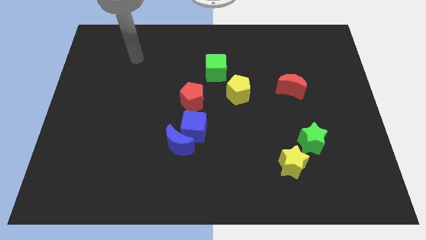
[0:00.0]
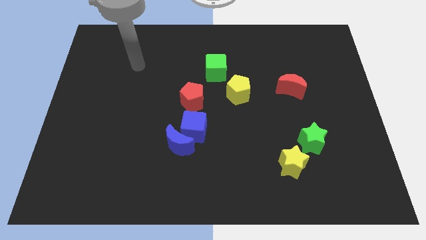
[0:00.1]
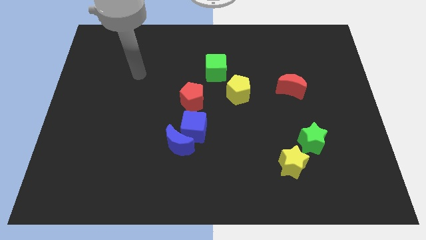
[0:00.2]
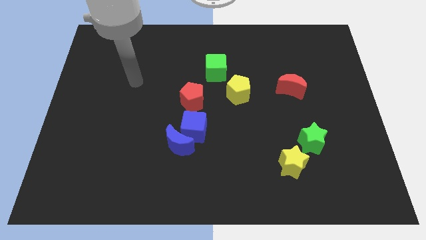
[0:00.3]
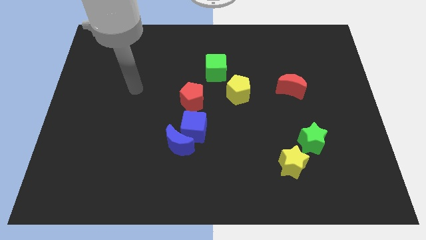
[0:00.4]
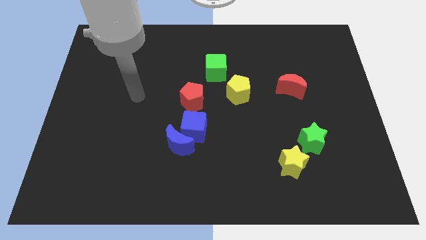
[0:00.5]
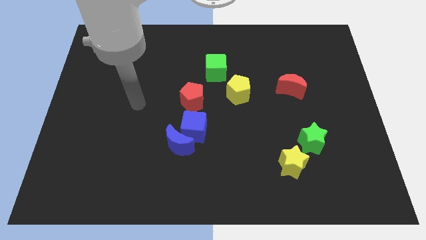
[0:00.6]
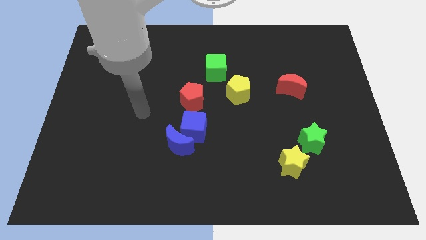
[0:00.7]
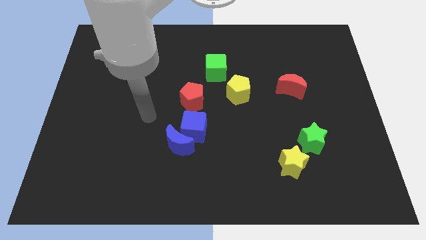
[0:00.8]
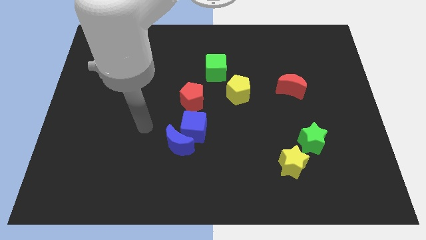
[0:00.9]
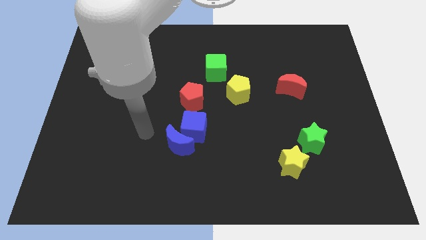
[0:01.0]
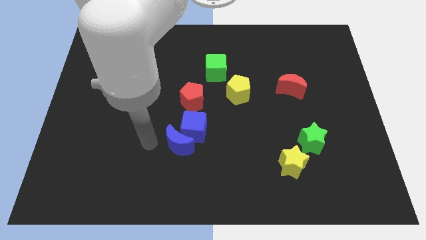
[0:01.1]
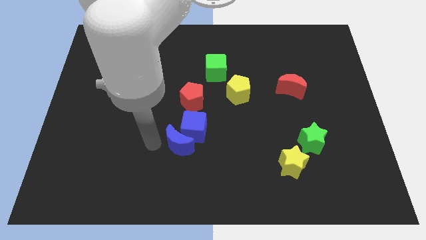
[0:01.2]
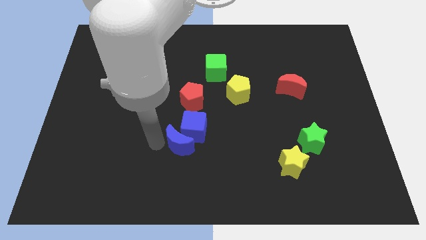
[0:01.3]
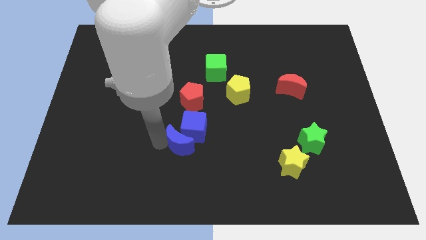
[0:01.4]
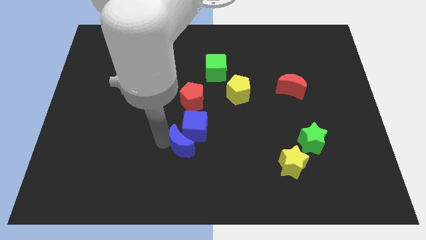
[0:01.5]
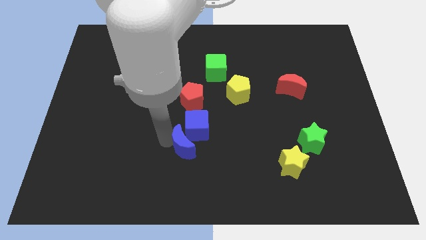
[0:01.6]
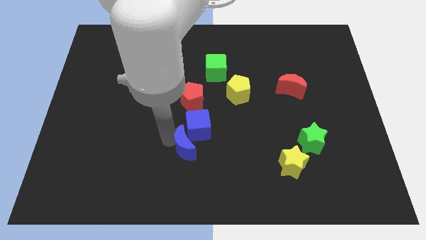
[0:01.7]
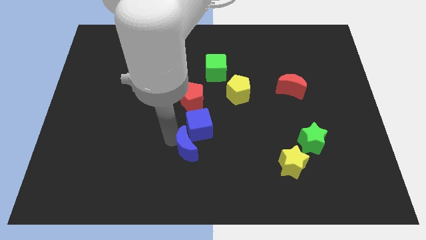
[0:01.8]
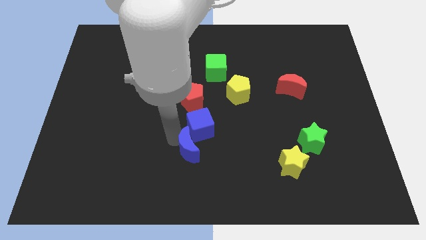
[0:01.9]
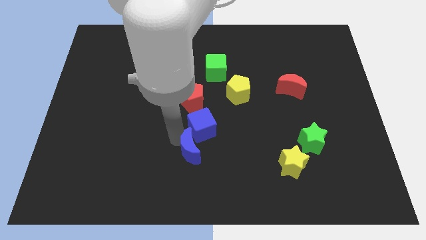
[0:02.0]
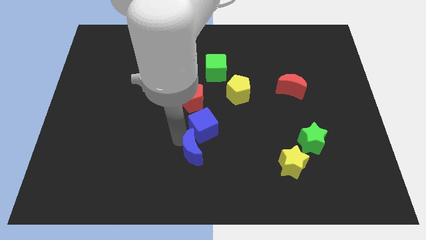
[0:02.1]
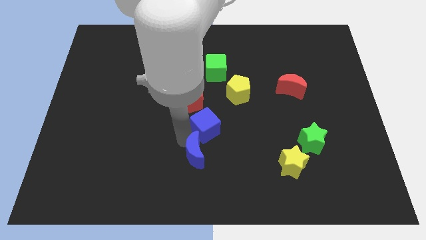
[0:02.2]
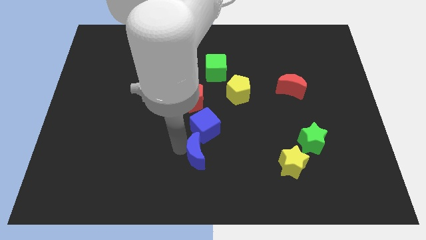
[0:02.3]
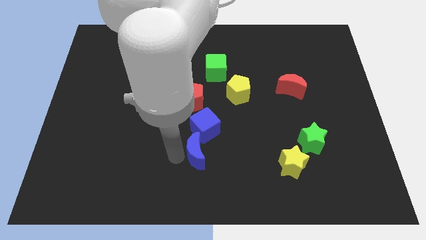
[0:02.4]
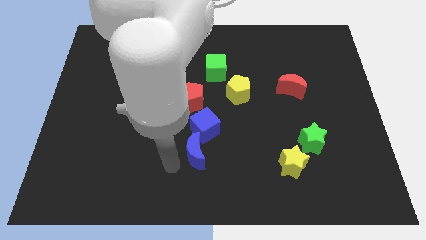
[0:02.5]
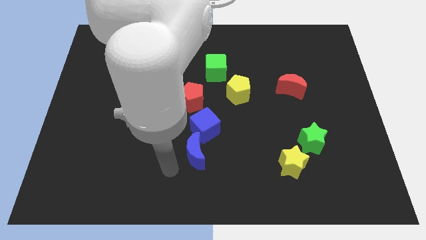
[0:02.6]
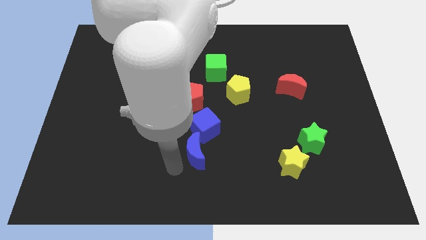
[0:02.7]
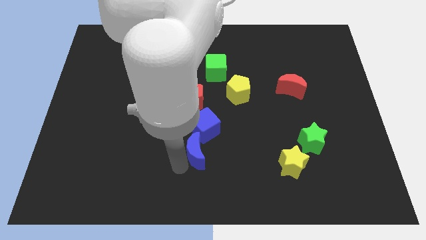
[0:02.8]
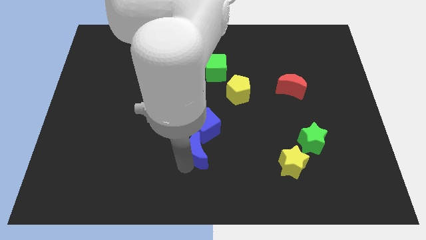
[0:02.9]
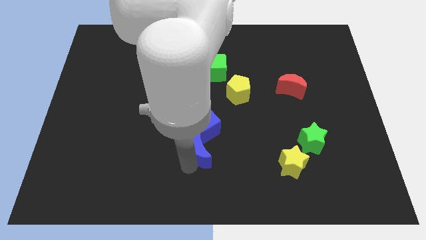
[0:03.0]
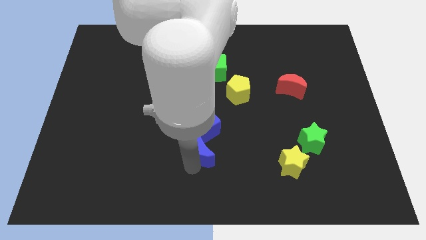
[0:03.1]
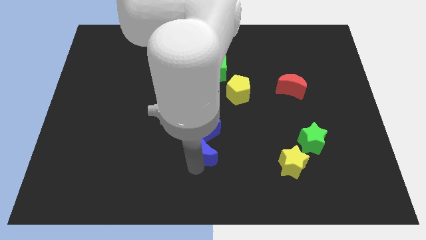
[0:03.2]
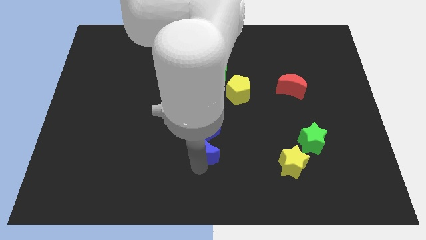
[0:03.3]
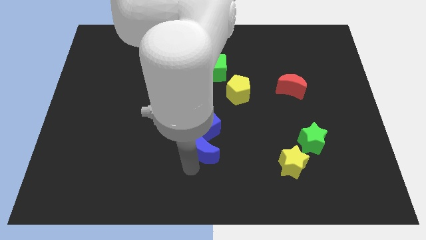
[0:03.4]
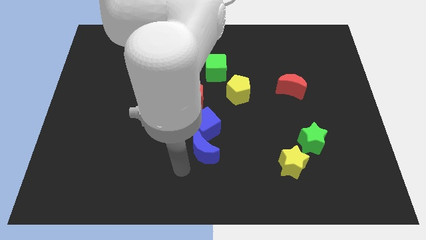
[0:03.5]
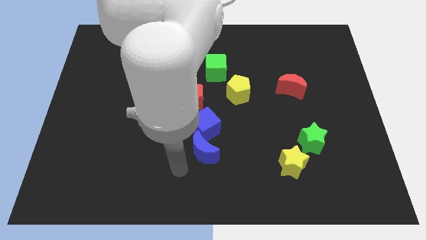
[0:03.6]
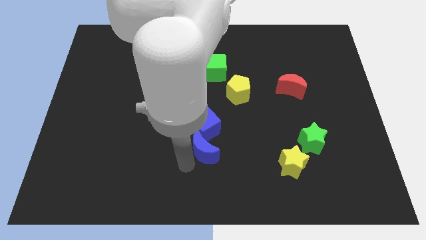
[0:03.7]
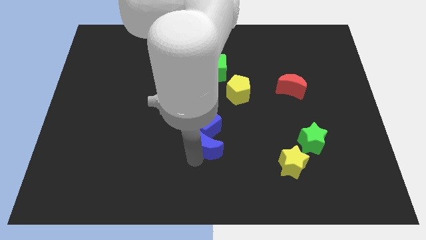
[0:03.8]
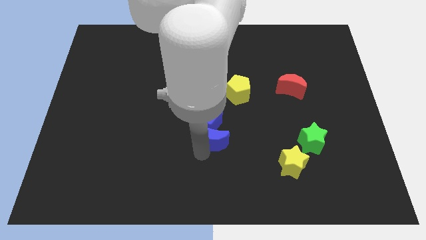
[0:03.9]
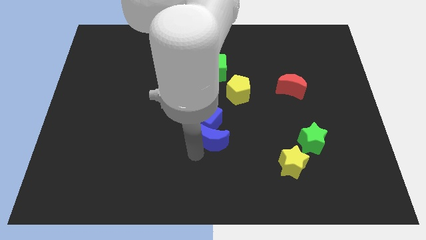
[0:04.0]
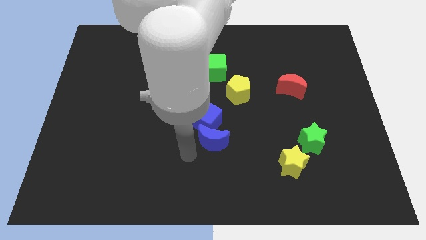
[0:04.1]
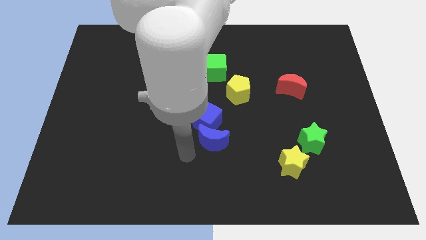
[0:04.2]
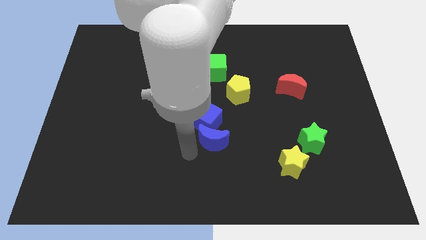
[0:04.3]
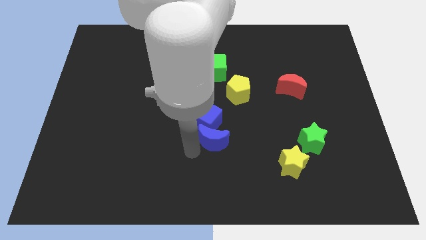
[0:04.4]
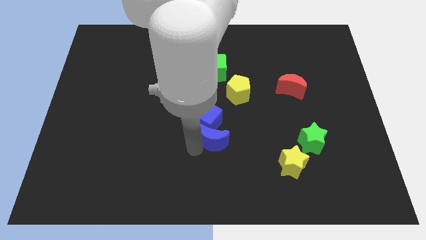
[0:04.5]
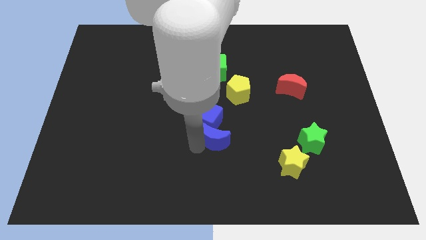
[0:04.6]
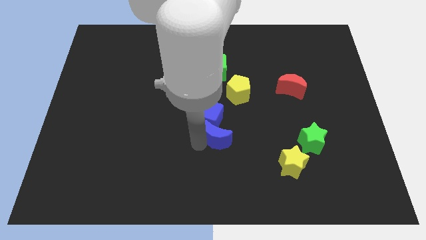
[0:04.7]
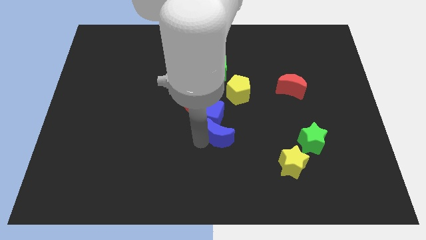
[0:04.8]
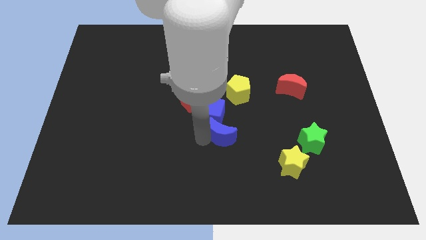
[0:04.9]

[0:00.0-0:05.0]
move the blue moon to the bottom of the yellow pentagon

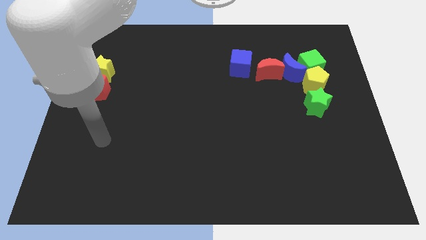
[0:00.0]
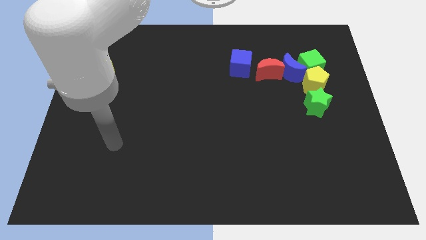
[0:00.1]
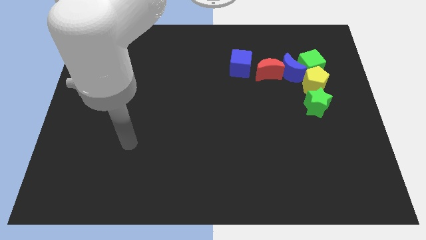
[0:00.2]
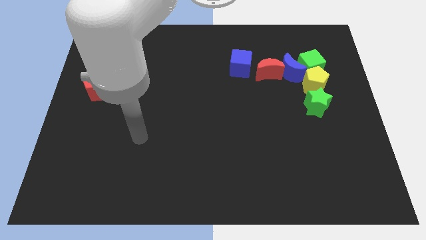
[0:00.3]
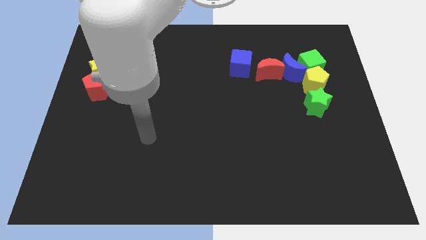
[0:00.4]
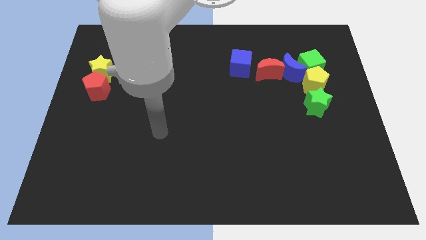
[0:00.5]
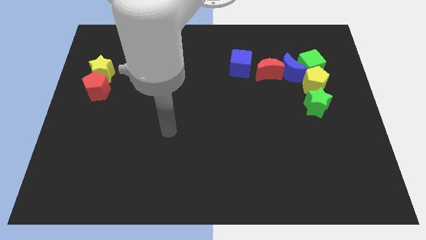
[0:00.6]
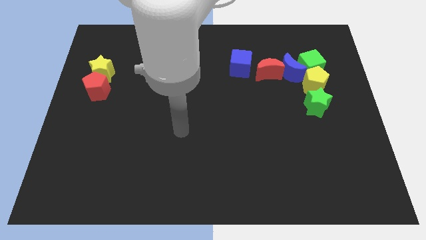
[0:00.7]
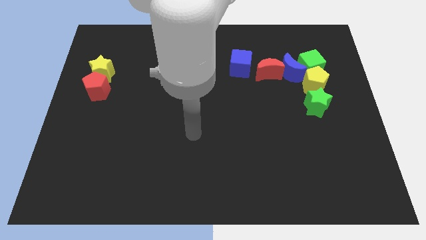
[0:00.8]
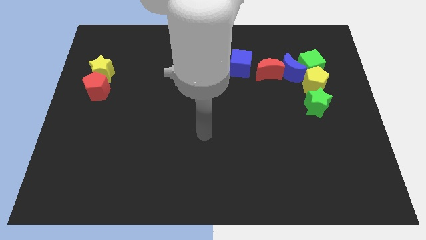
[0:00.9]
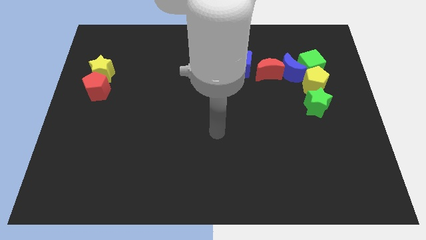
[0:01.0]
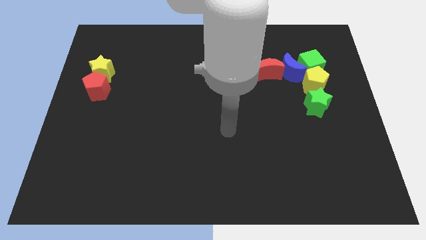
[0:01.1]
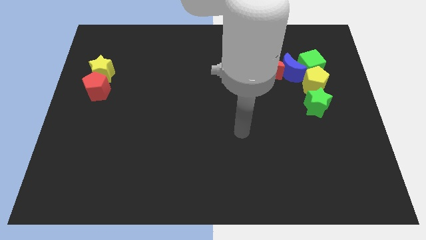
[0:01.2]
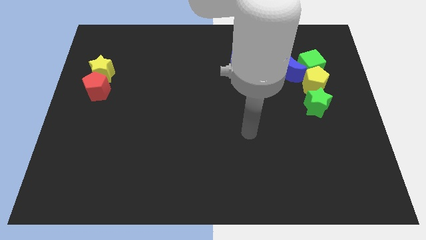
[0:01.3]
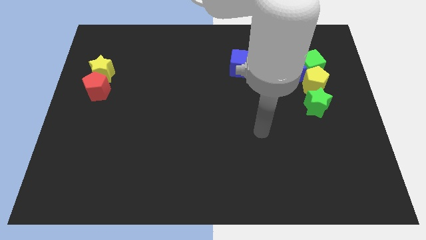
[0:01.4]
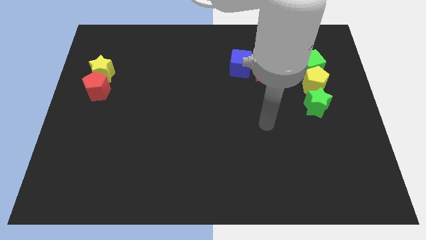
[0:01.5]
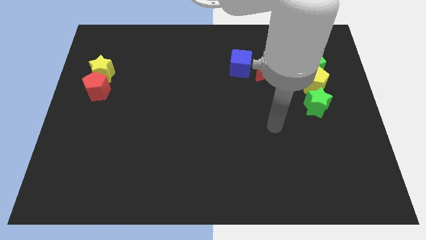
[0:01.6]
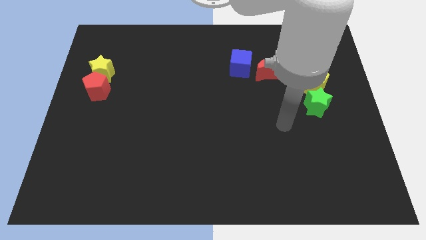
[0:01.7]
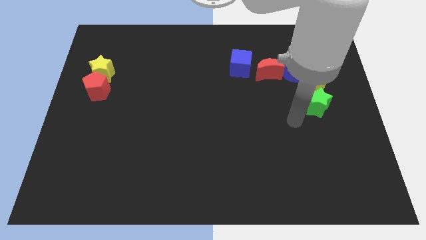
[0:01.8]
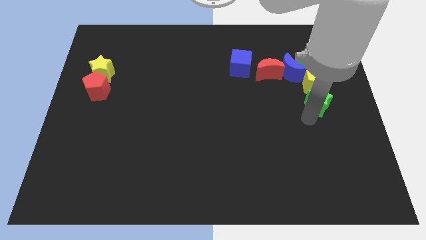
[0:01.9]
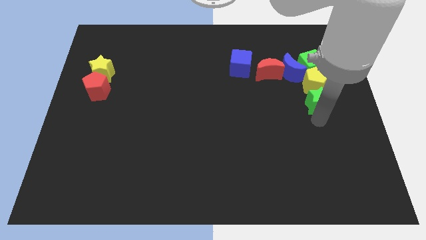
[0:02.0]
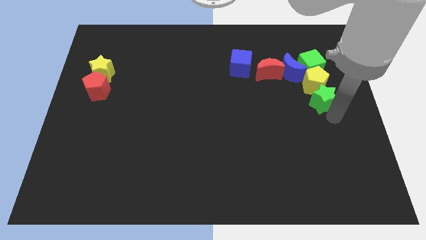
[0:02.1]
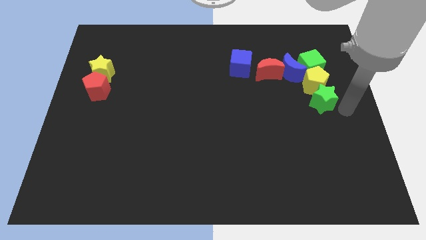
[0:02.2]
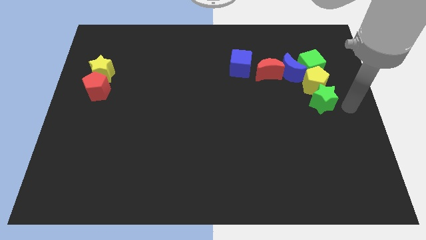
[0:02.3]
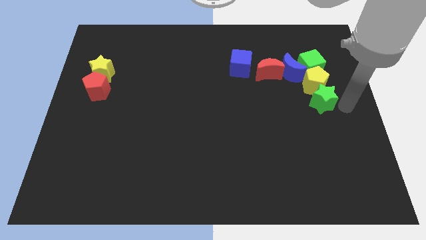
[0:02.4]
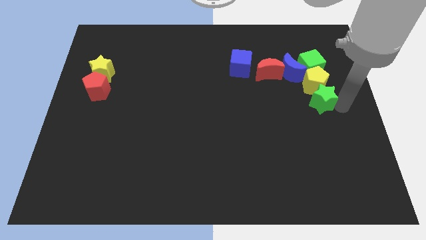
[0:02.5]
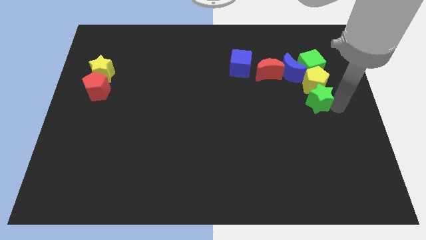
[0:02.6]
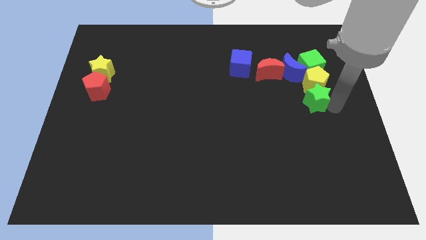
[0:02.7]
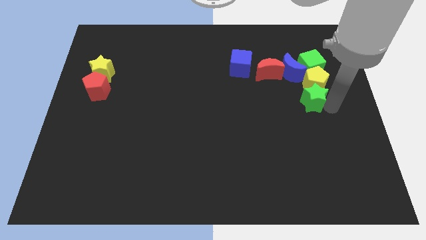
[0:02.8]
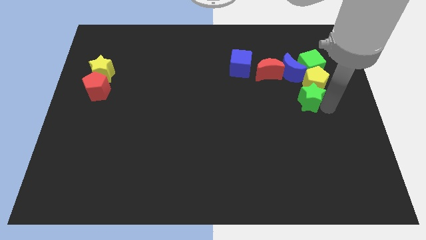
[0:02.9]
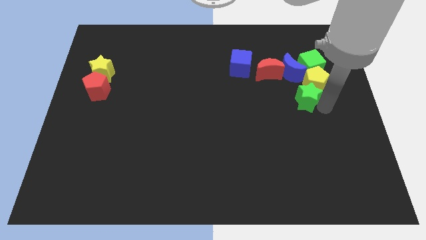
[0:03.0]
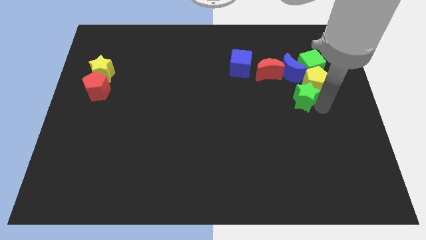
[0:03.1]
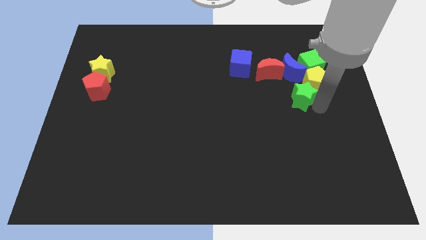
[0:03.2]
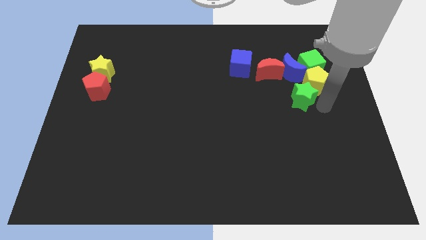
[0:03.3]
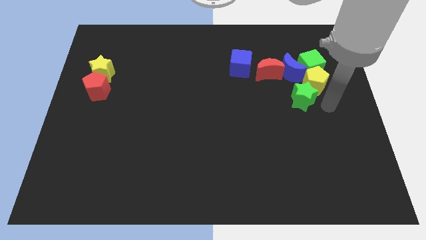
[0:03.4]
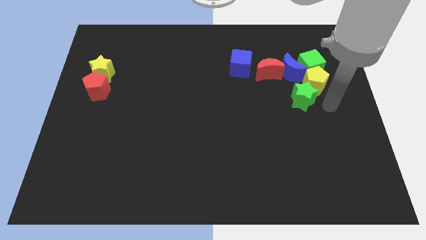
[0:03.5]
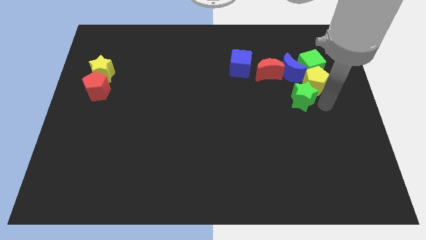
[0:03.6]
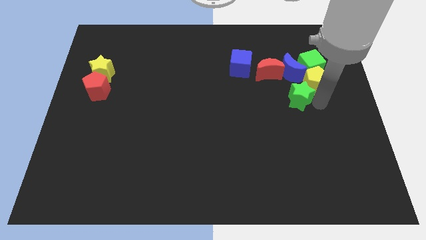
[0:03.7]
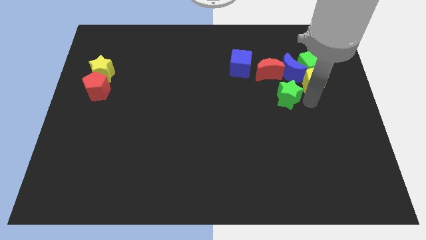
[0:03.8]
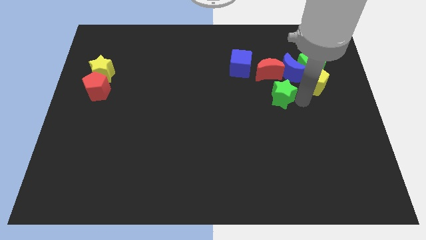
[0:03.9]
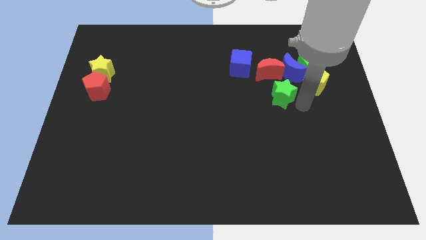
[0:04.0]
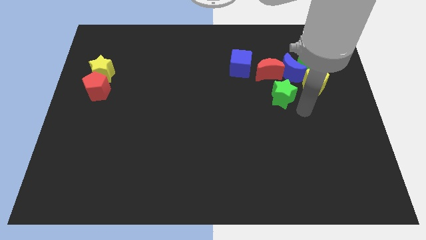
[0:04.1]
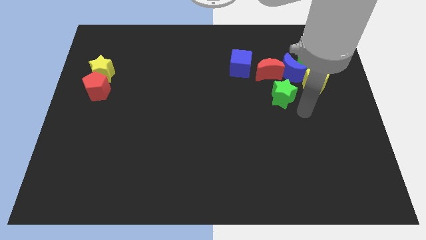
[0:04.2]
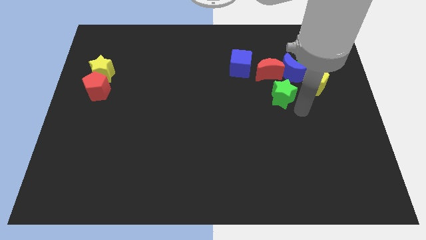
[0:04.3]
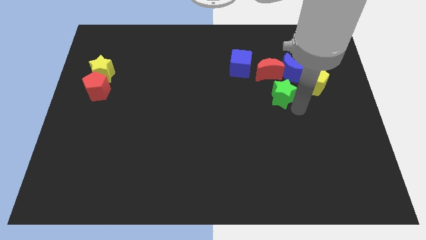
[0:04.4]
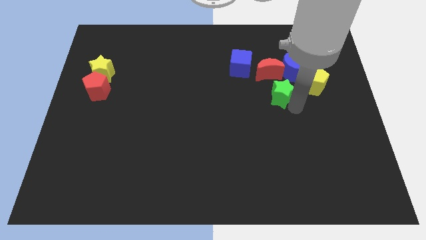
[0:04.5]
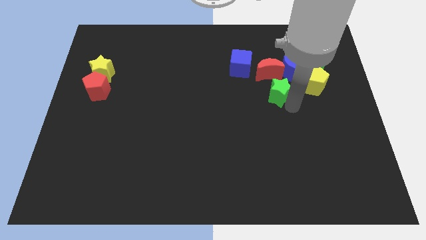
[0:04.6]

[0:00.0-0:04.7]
move the green star to the bottom right side of the blue cube
